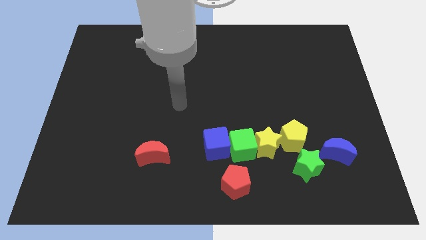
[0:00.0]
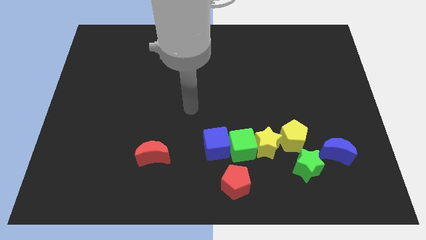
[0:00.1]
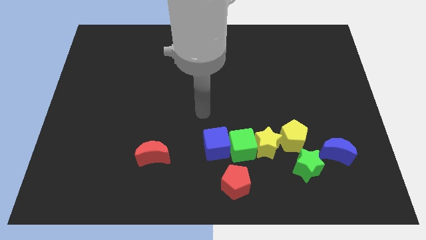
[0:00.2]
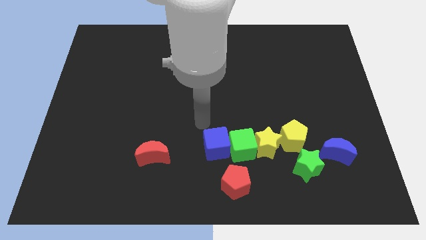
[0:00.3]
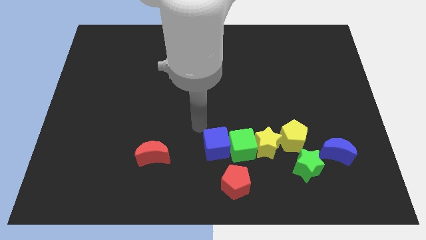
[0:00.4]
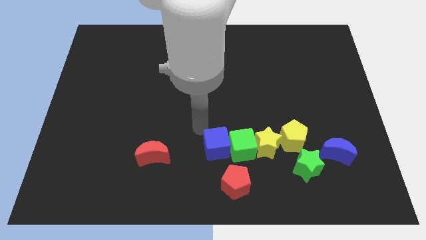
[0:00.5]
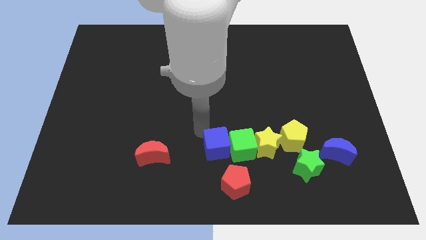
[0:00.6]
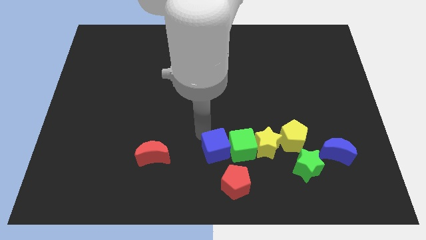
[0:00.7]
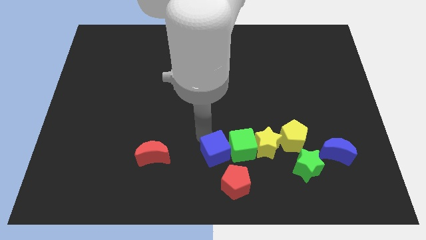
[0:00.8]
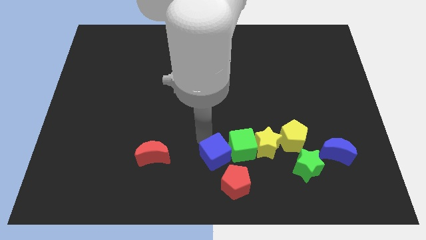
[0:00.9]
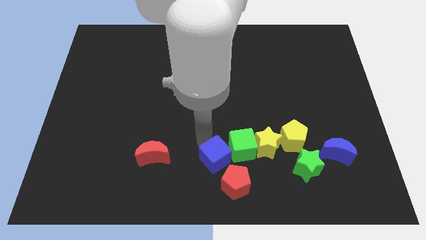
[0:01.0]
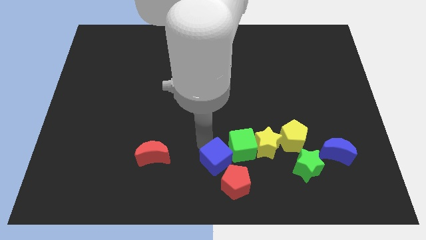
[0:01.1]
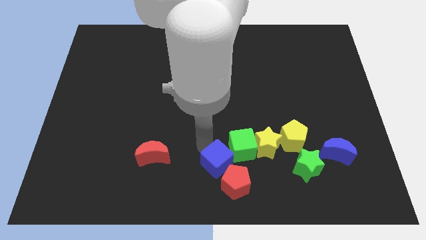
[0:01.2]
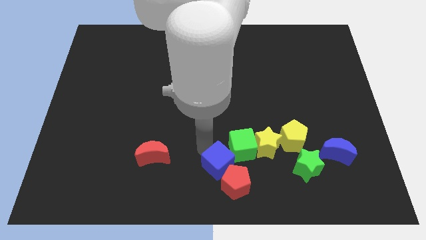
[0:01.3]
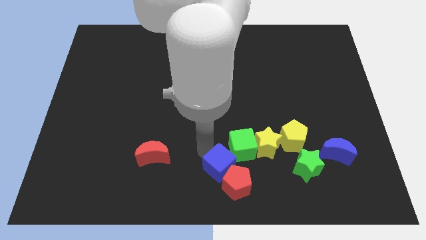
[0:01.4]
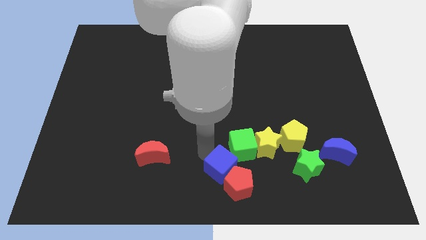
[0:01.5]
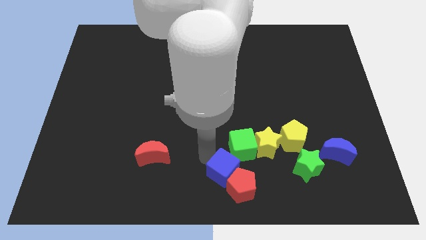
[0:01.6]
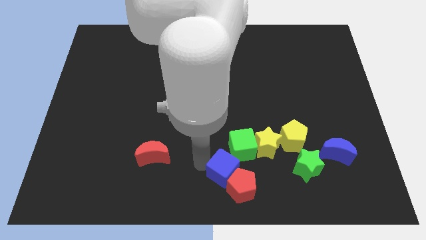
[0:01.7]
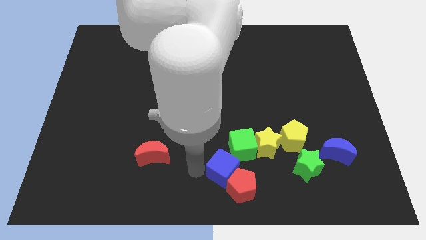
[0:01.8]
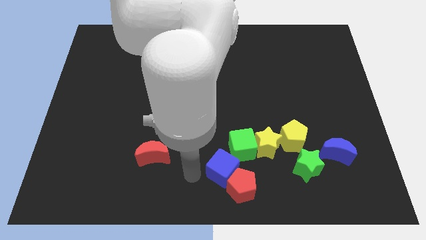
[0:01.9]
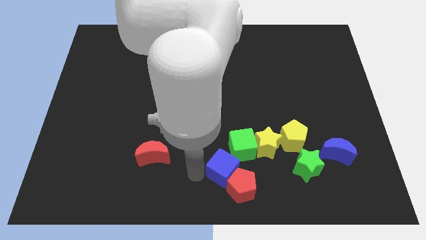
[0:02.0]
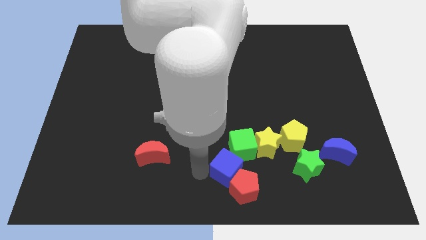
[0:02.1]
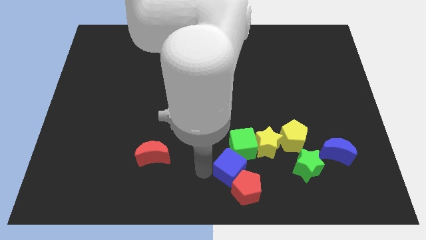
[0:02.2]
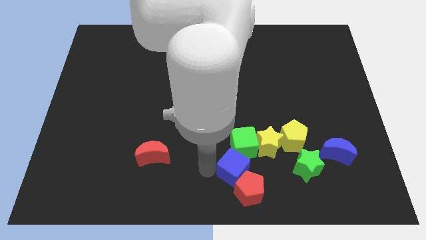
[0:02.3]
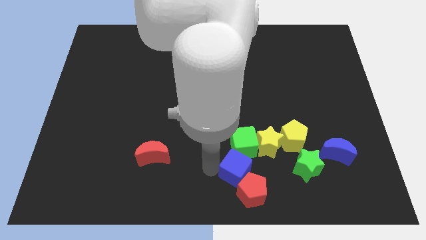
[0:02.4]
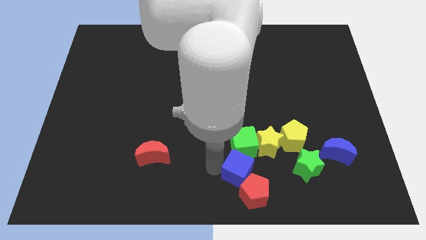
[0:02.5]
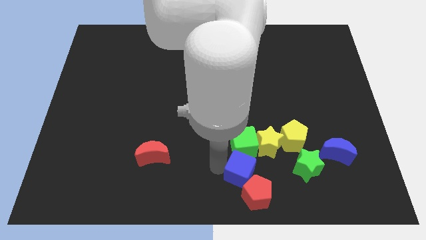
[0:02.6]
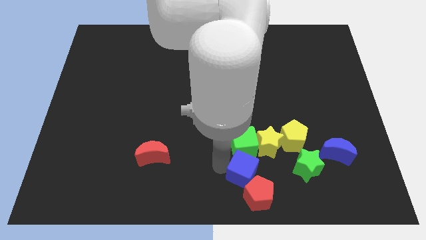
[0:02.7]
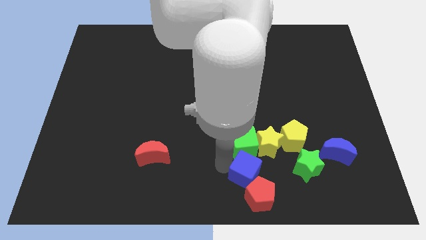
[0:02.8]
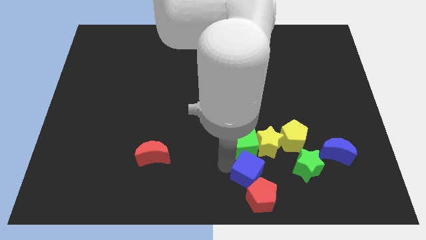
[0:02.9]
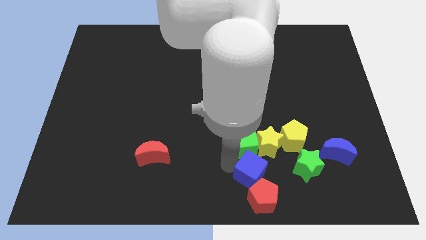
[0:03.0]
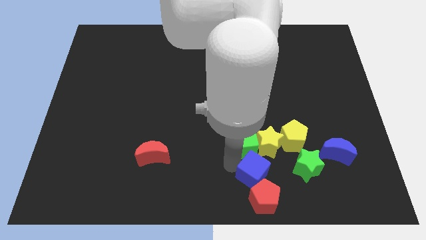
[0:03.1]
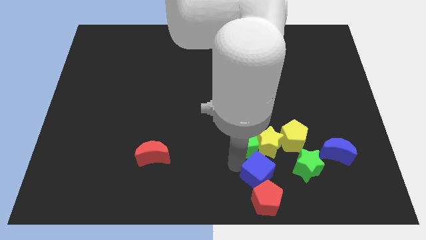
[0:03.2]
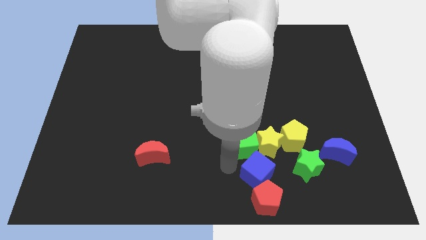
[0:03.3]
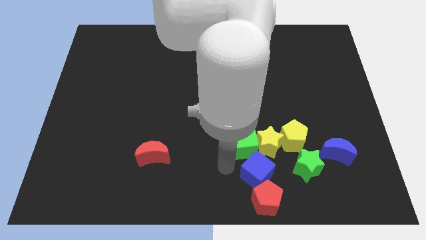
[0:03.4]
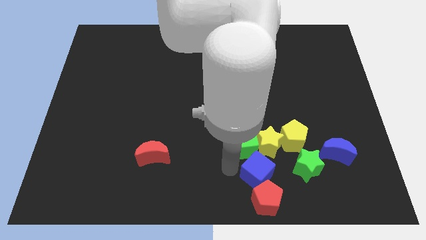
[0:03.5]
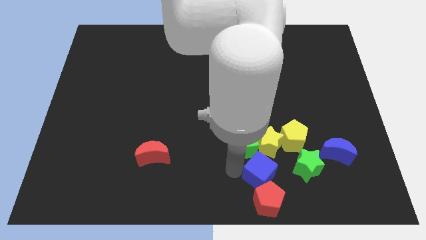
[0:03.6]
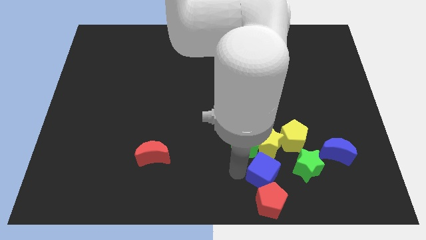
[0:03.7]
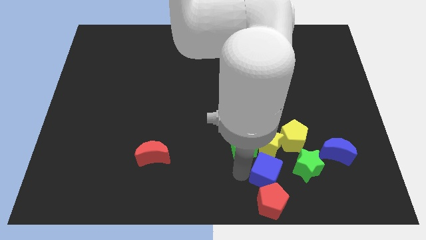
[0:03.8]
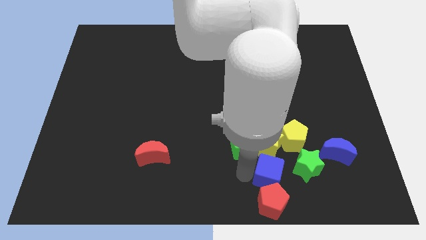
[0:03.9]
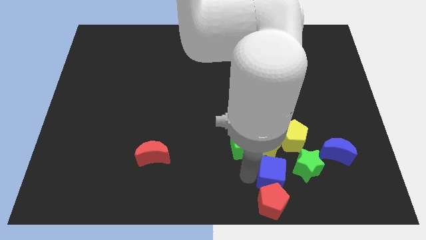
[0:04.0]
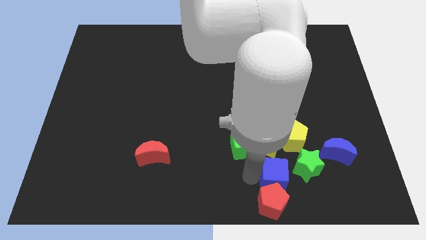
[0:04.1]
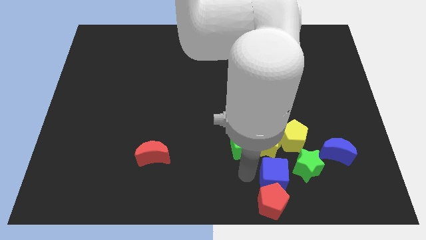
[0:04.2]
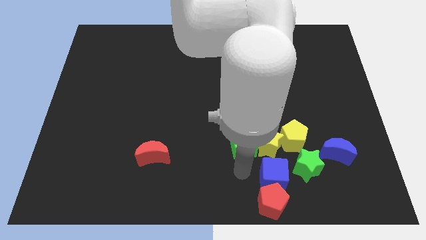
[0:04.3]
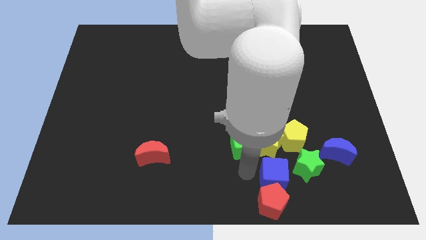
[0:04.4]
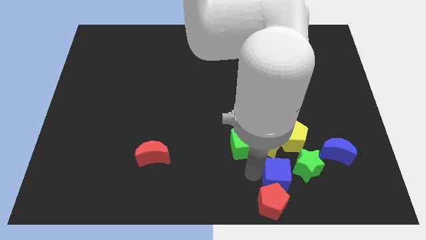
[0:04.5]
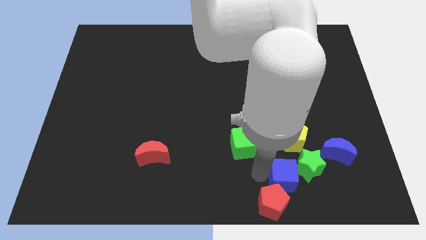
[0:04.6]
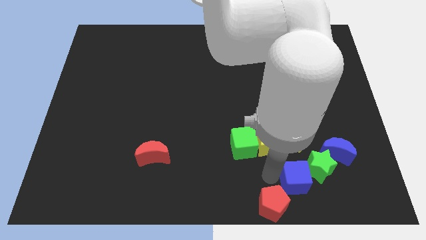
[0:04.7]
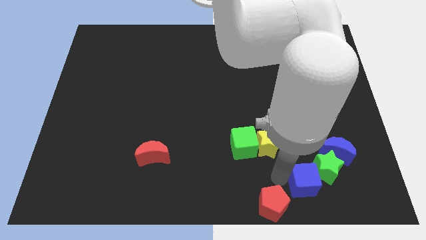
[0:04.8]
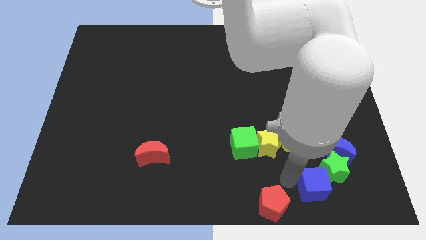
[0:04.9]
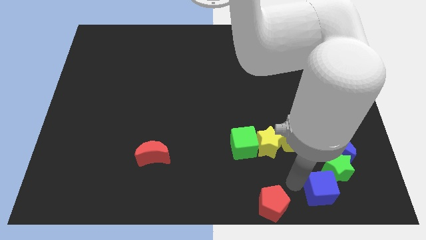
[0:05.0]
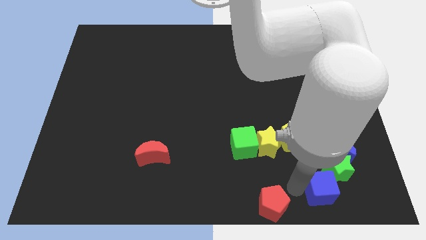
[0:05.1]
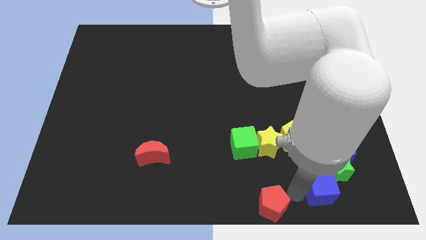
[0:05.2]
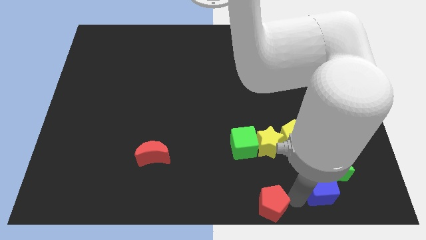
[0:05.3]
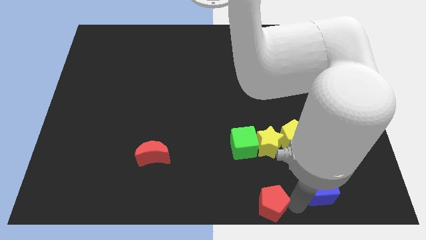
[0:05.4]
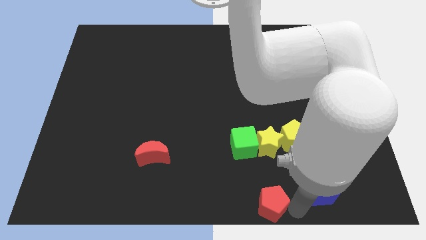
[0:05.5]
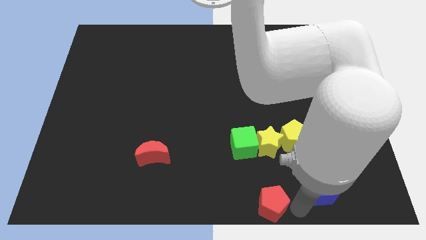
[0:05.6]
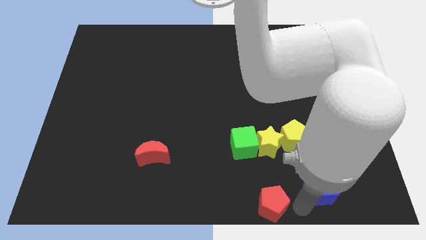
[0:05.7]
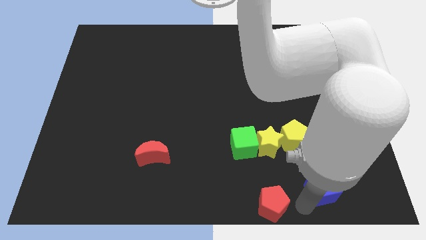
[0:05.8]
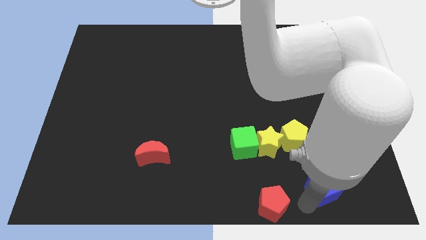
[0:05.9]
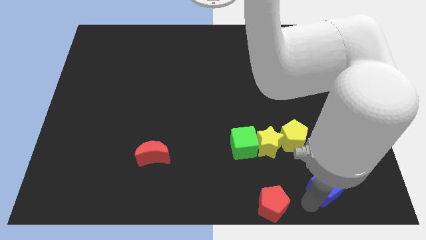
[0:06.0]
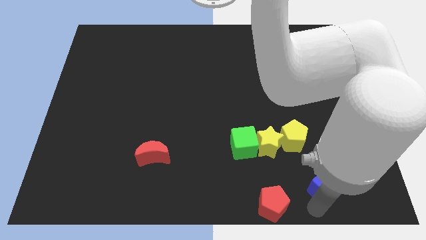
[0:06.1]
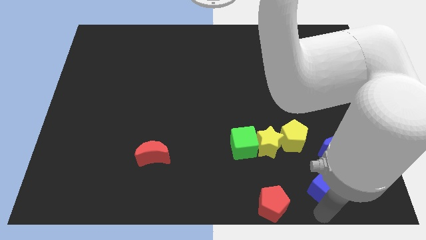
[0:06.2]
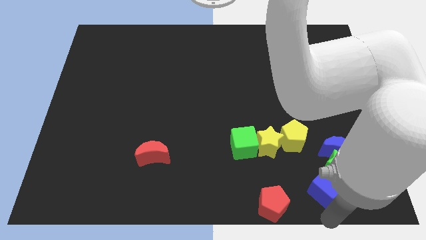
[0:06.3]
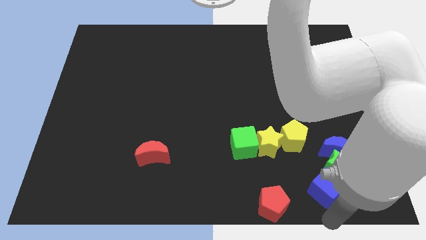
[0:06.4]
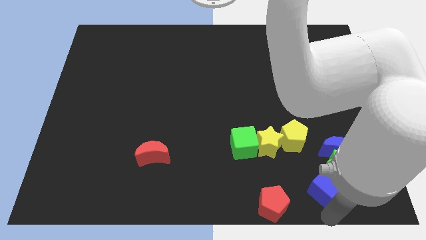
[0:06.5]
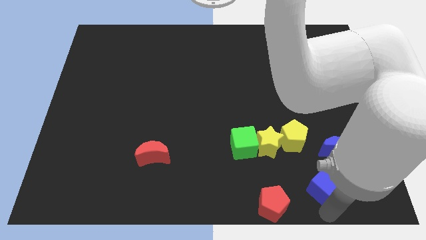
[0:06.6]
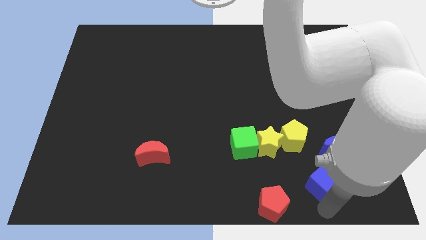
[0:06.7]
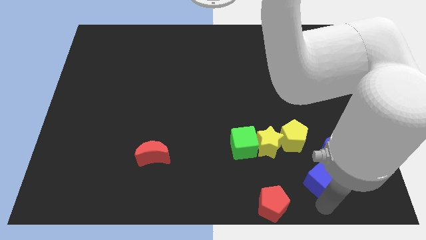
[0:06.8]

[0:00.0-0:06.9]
put the blue cube diagonally down and to the right of the yellow pentagon
